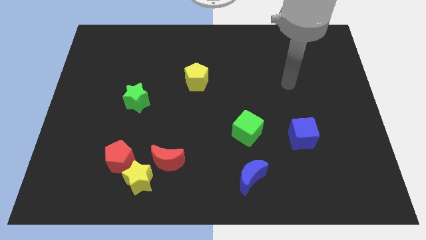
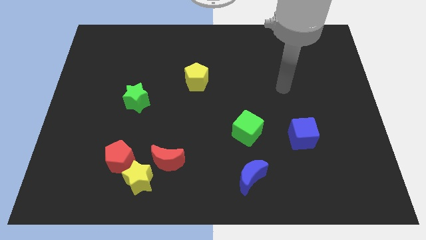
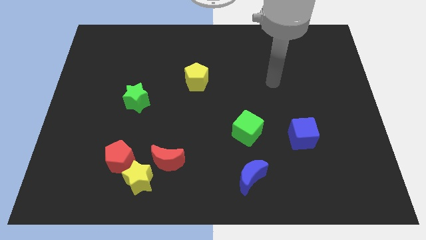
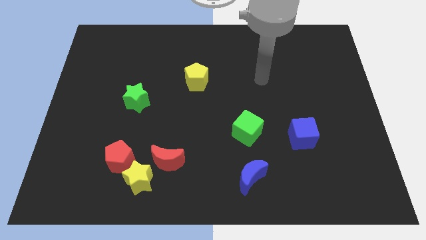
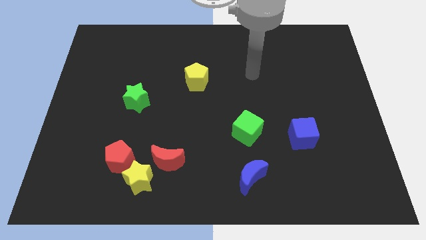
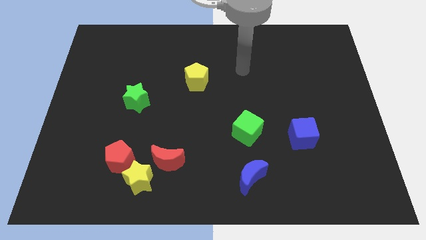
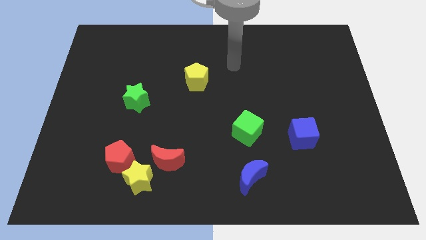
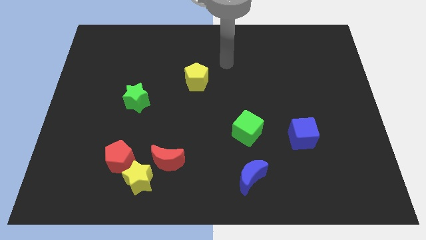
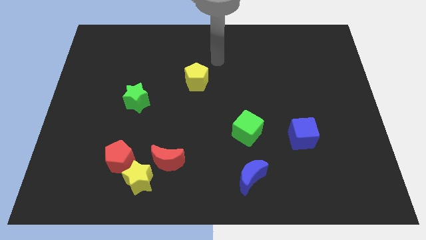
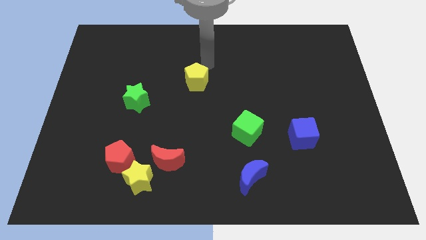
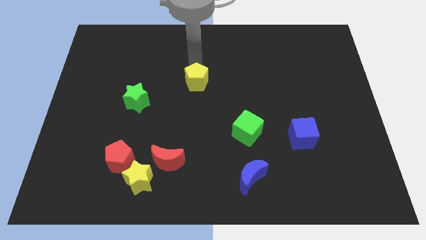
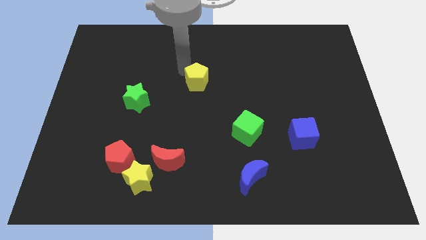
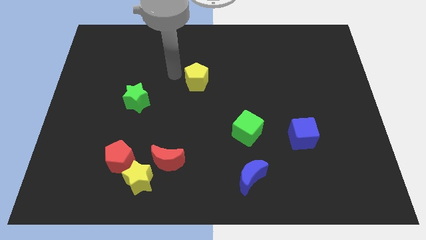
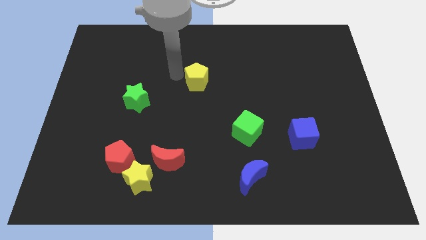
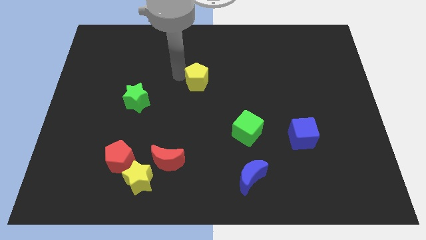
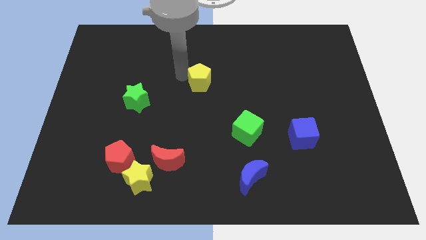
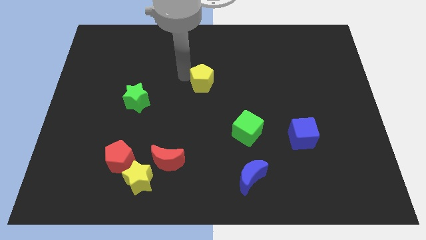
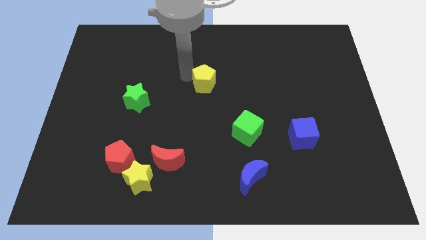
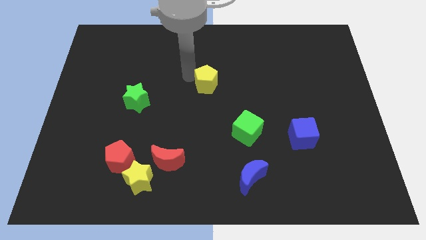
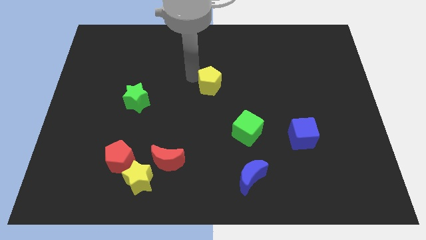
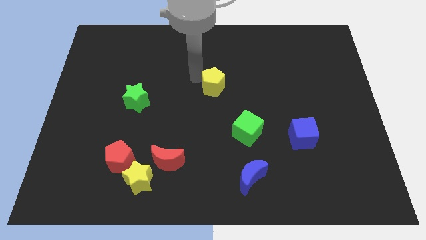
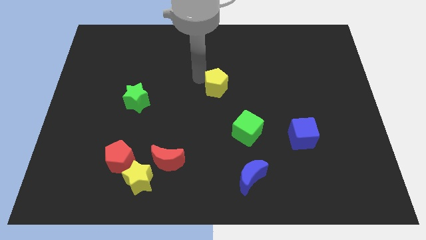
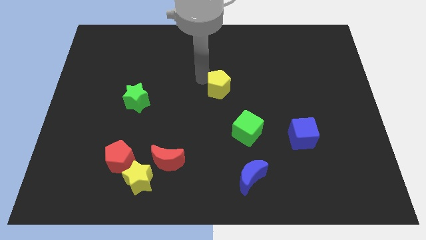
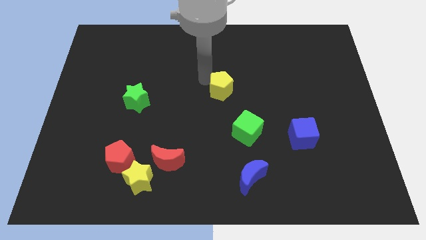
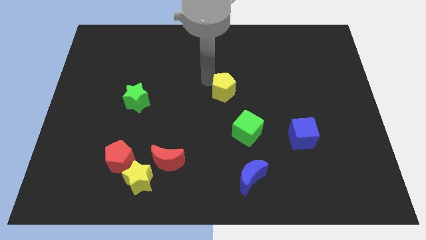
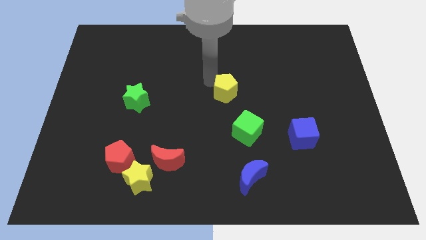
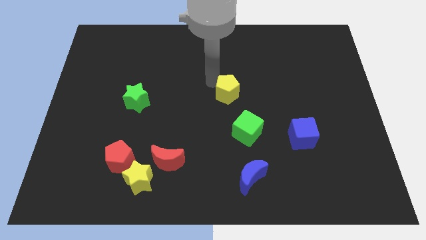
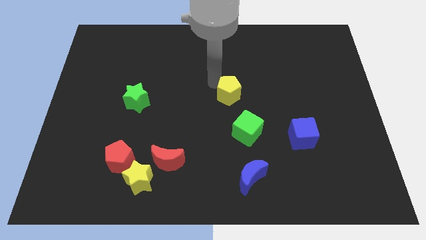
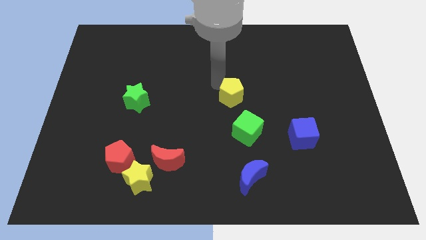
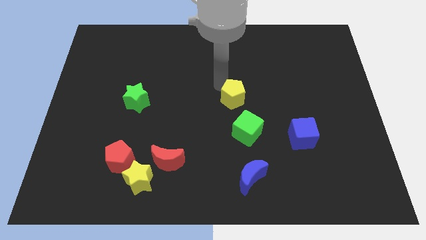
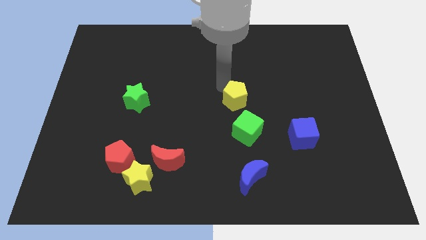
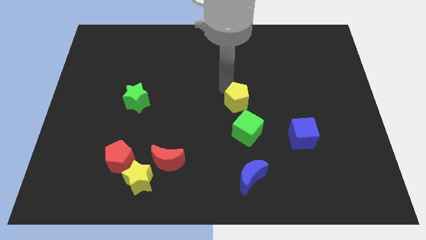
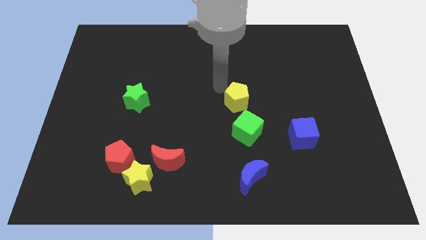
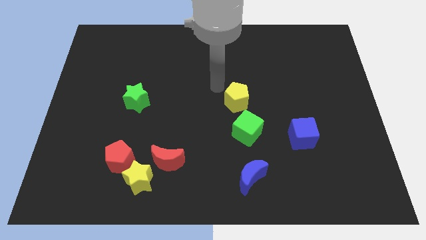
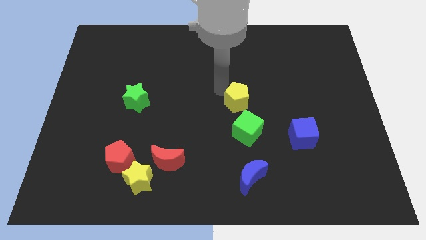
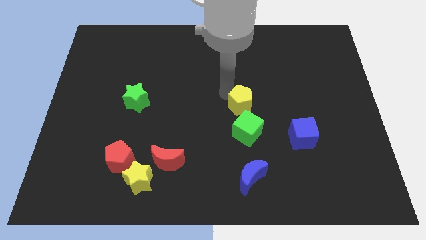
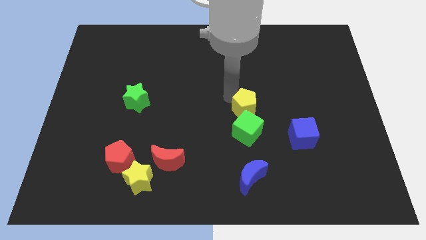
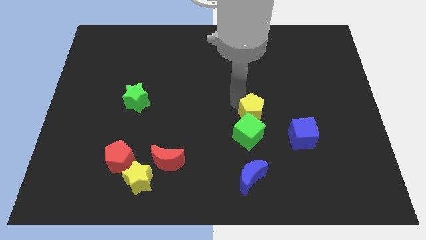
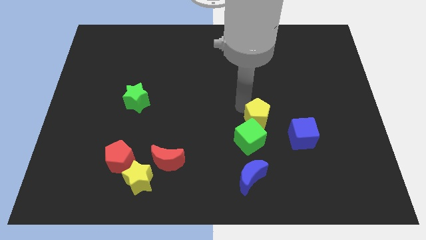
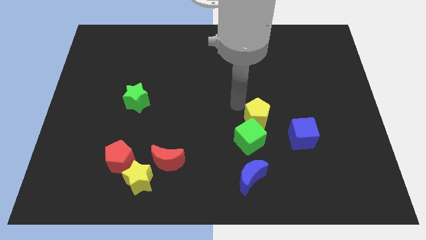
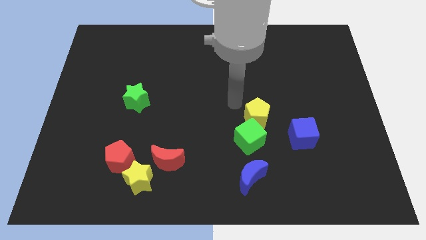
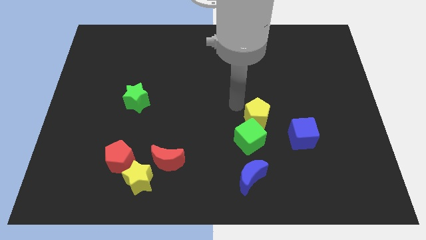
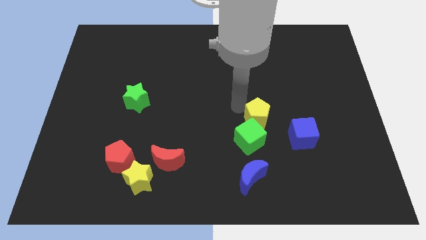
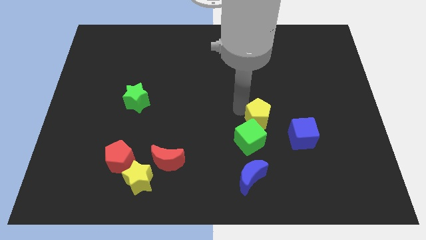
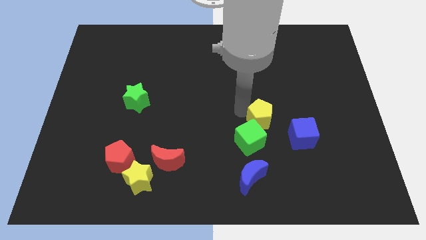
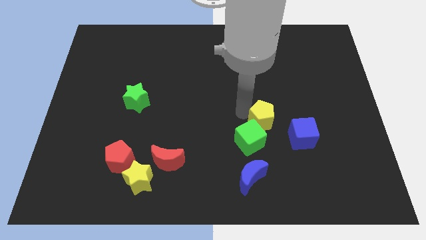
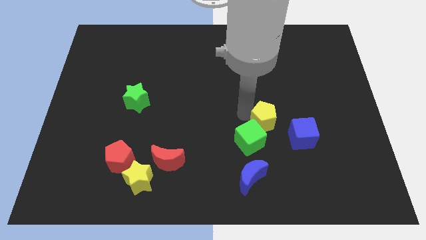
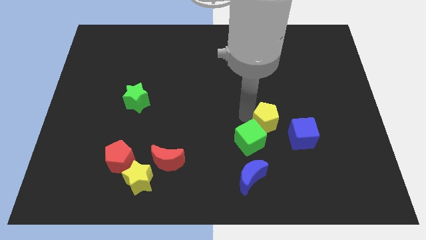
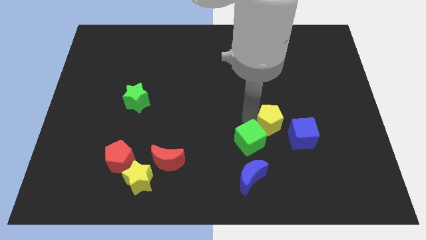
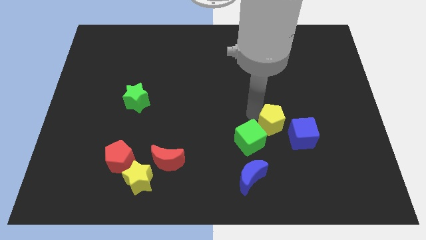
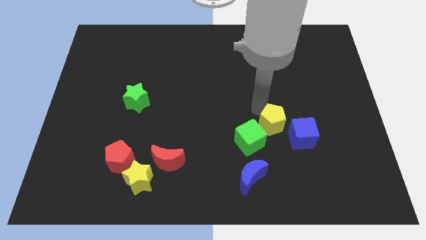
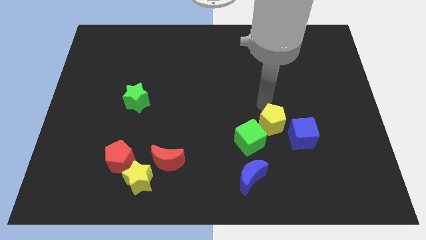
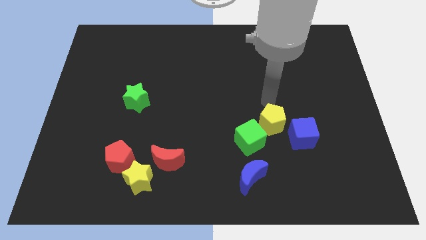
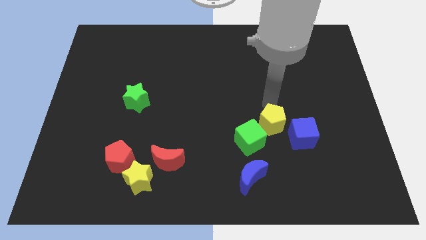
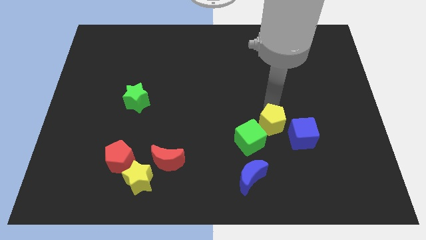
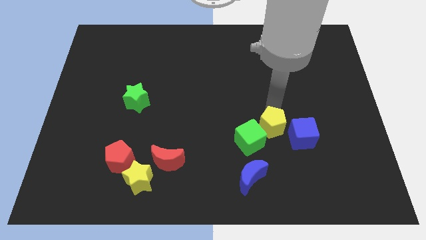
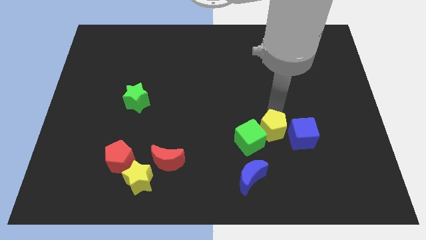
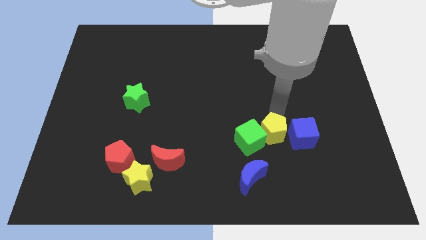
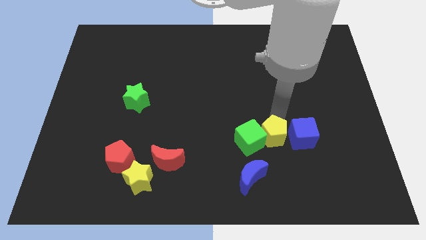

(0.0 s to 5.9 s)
slide the yellow pentagon to the bottom right of the green cube

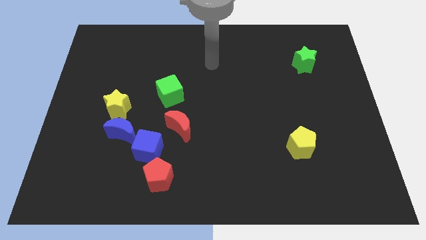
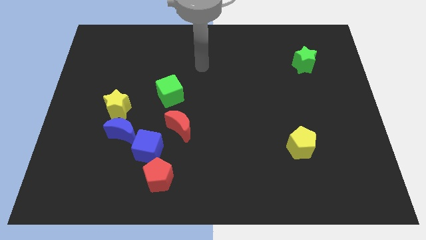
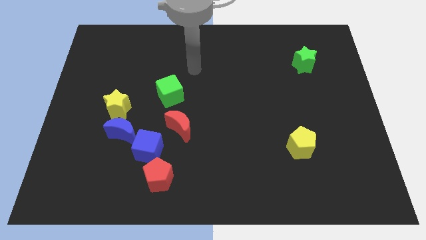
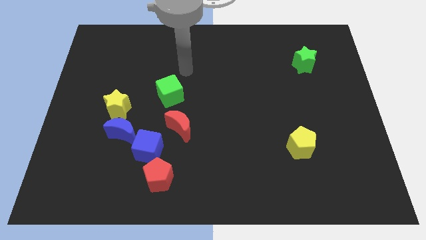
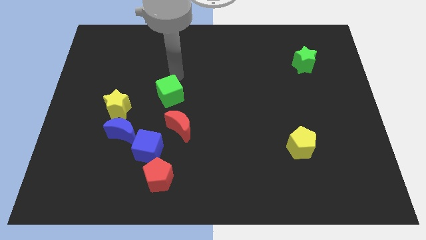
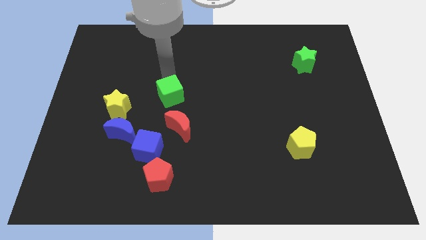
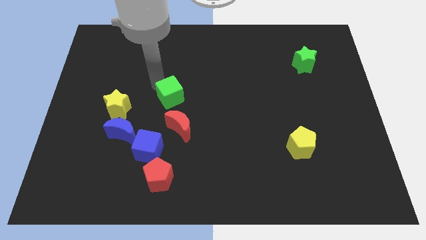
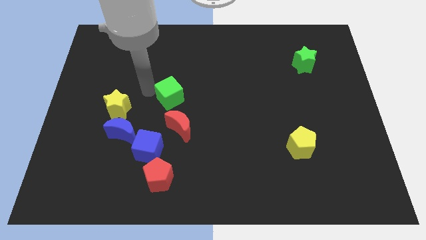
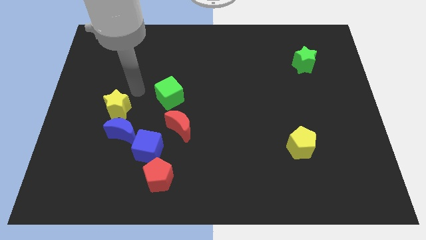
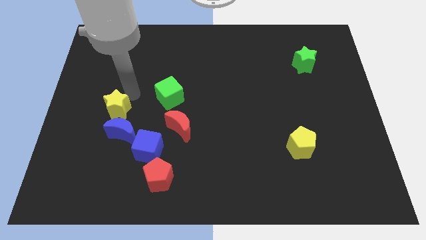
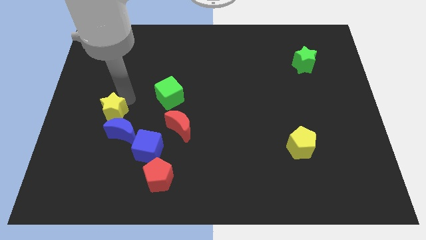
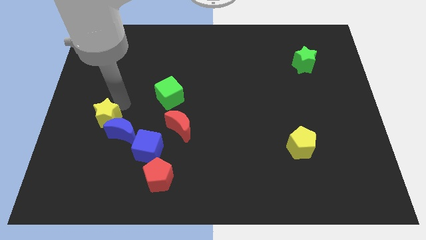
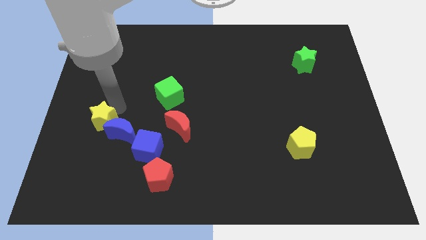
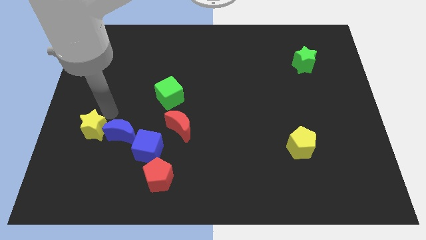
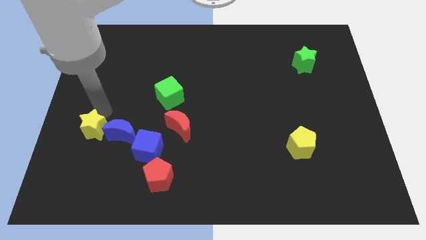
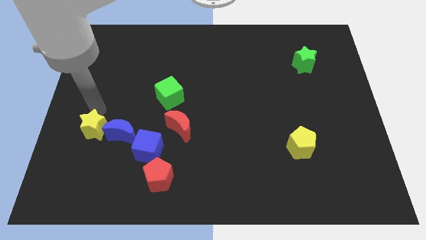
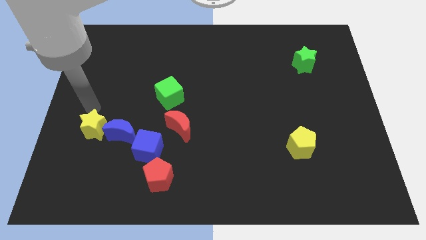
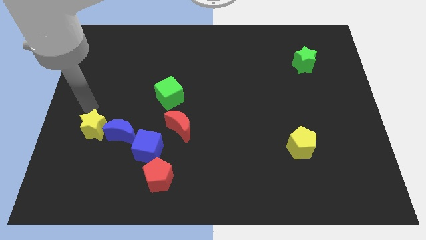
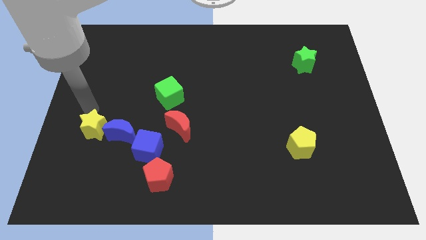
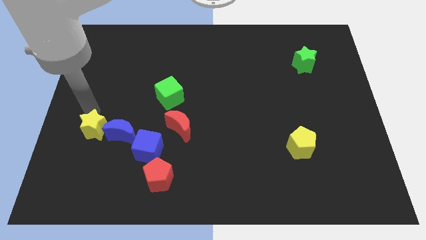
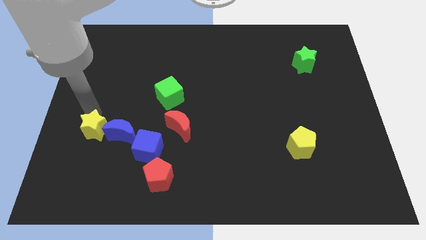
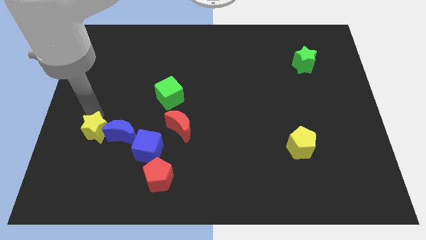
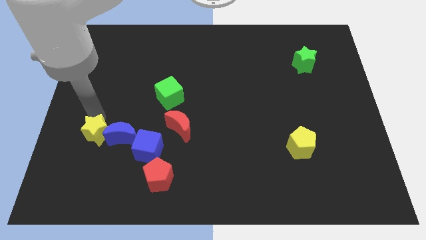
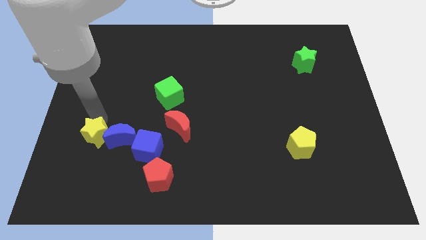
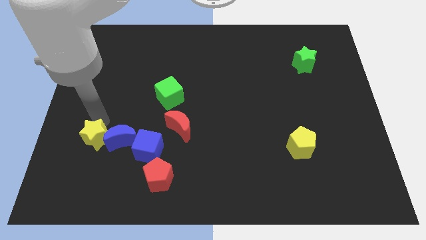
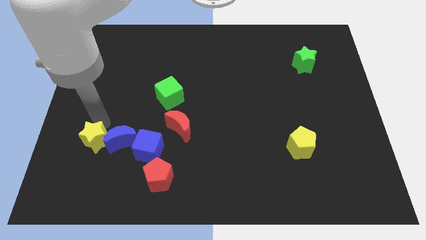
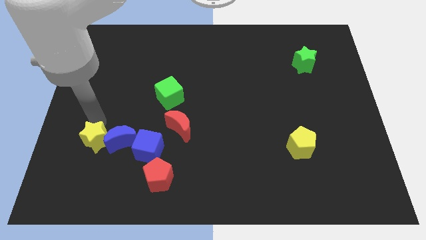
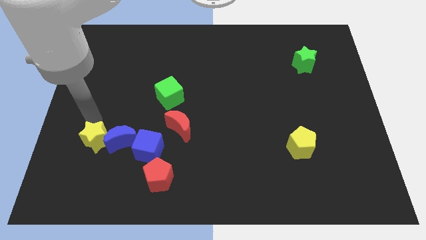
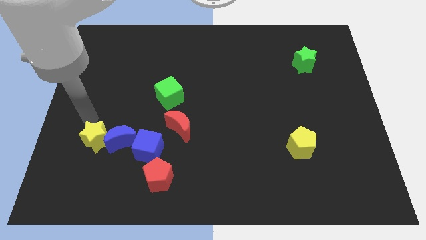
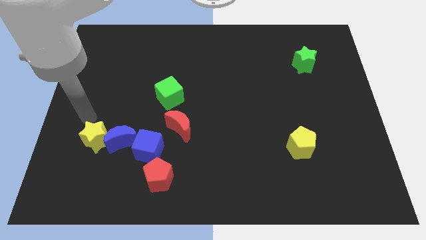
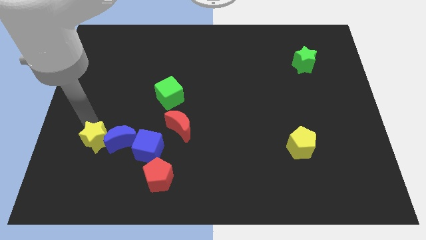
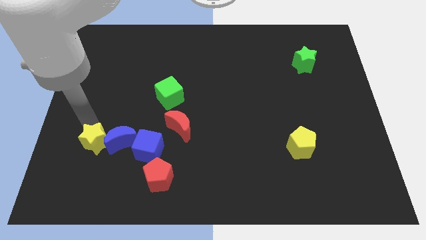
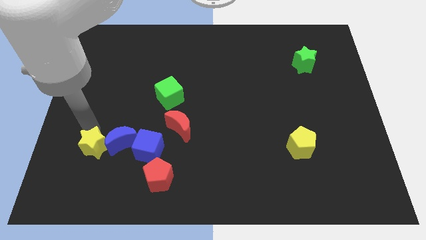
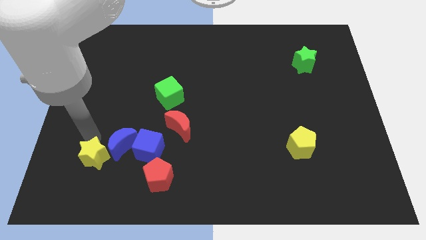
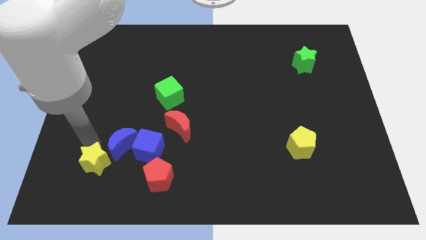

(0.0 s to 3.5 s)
push the yellow star just left of the red pentagon
